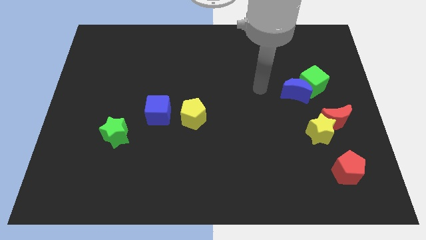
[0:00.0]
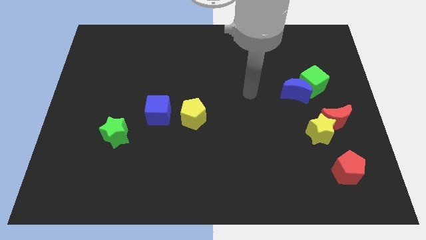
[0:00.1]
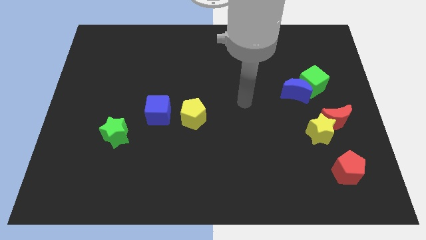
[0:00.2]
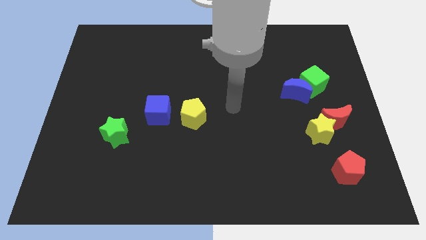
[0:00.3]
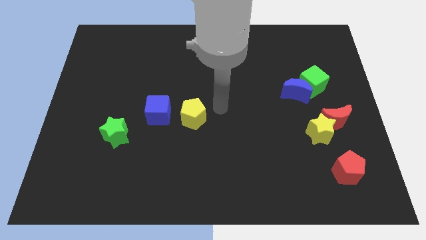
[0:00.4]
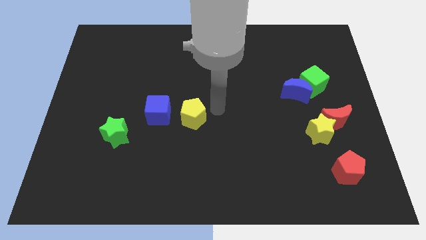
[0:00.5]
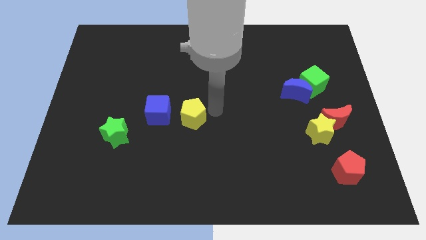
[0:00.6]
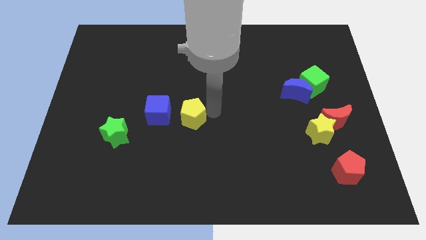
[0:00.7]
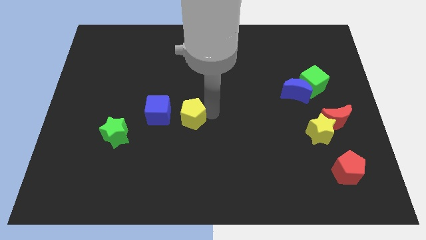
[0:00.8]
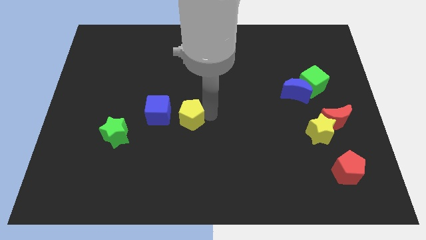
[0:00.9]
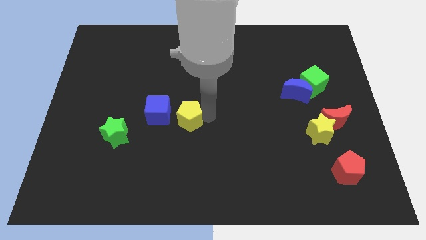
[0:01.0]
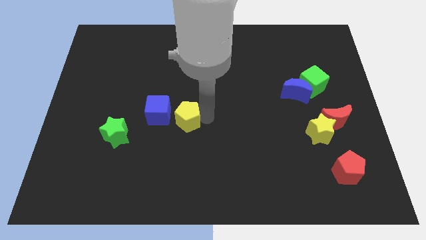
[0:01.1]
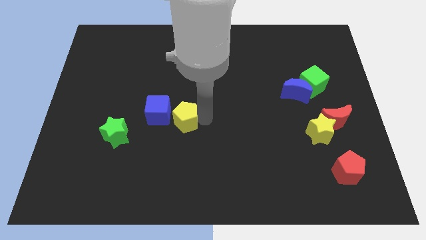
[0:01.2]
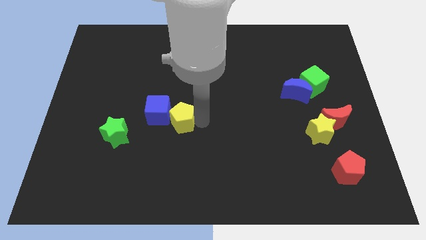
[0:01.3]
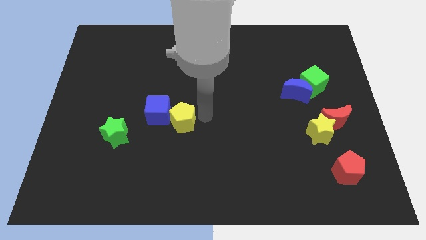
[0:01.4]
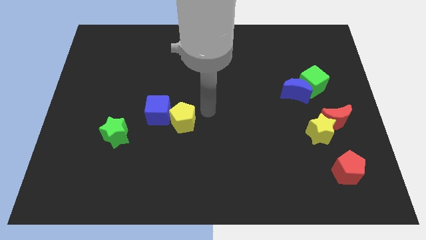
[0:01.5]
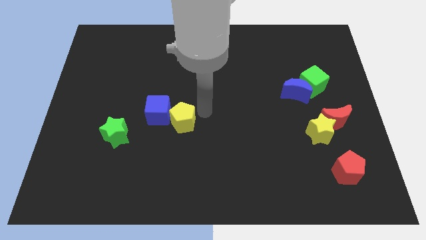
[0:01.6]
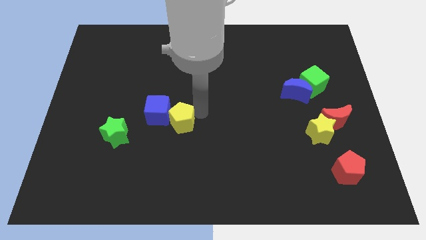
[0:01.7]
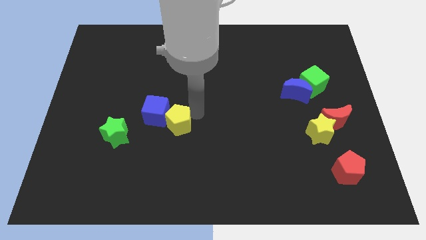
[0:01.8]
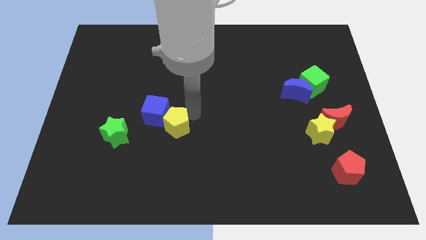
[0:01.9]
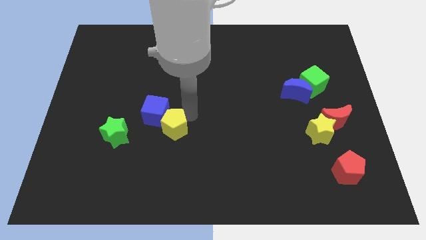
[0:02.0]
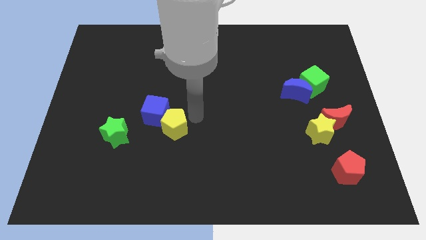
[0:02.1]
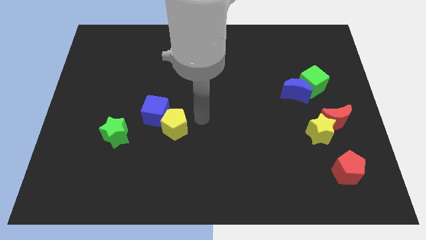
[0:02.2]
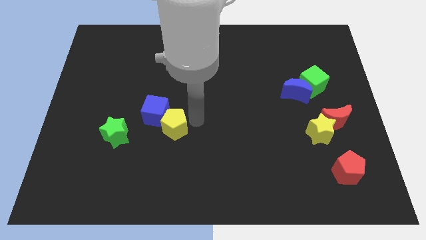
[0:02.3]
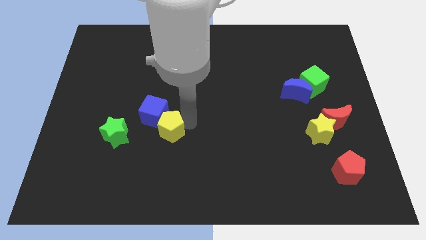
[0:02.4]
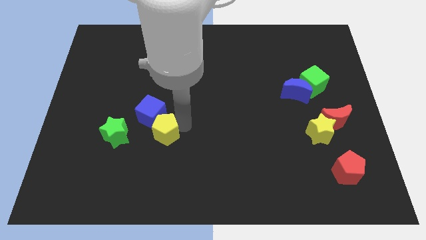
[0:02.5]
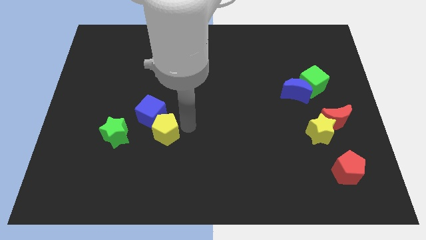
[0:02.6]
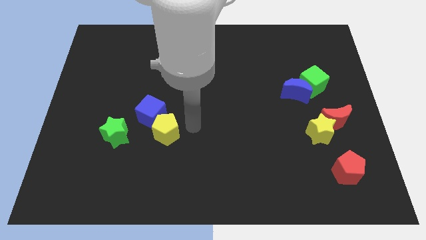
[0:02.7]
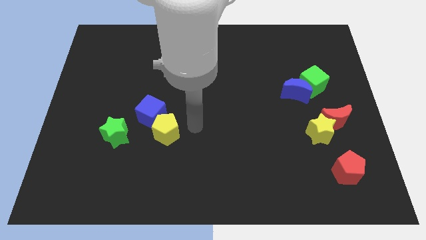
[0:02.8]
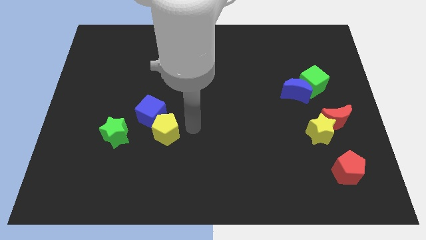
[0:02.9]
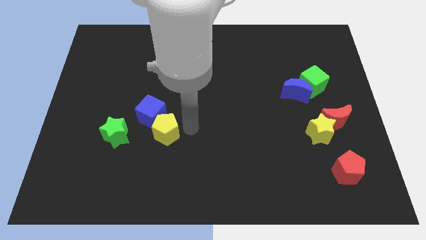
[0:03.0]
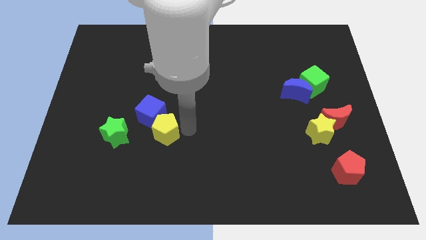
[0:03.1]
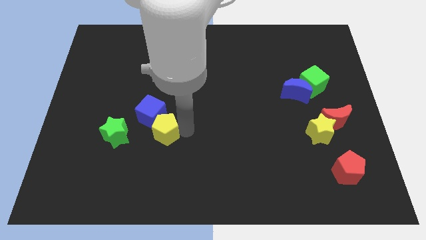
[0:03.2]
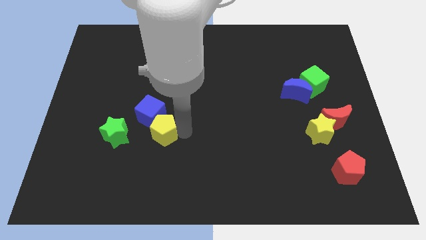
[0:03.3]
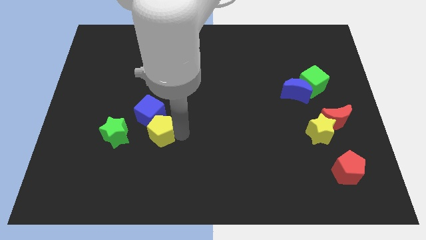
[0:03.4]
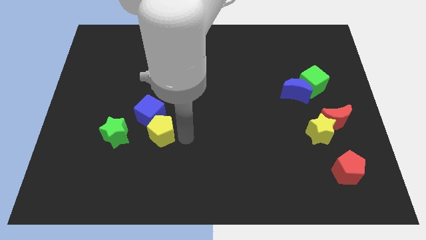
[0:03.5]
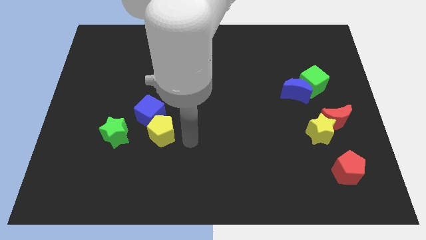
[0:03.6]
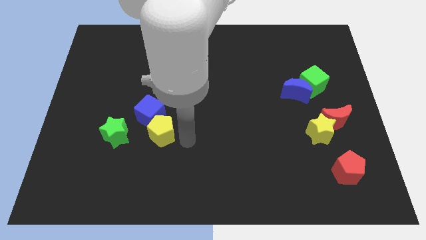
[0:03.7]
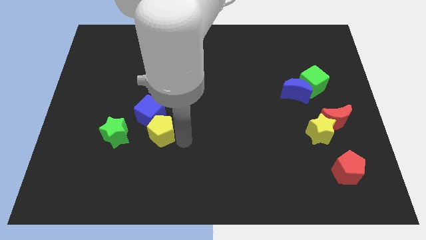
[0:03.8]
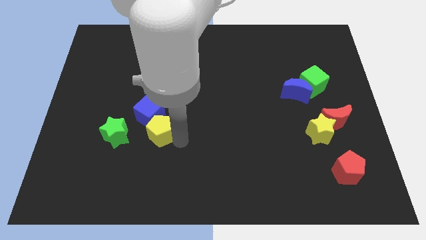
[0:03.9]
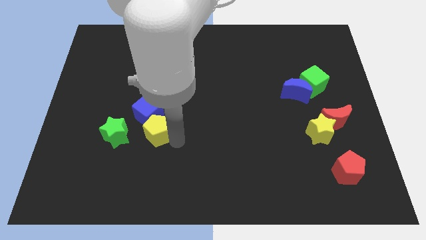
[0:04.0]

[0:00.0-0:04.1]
push the yellow pentagon somewhat to the left

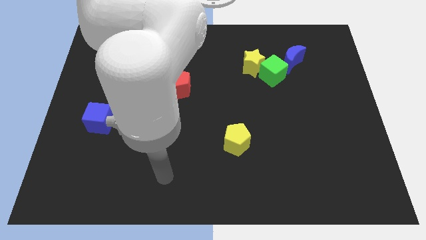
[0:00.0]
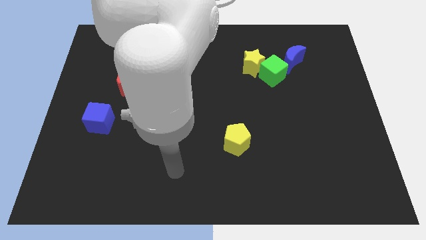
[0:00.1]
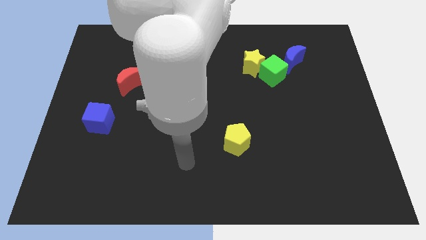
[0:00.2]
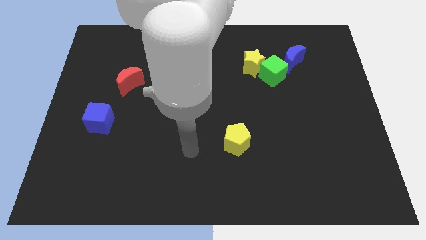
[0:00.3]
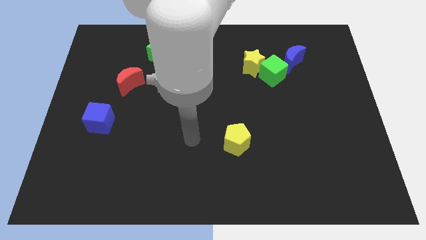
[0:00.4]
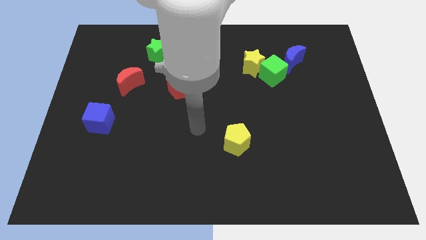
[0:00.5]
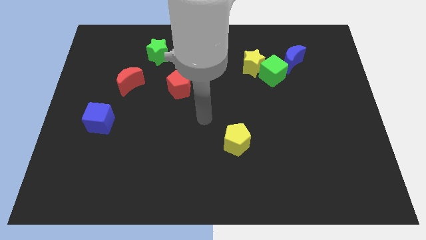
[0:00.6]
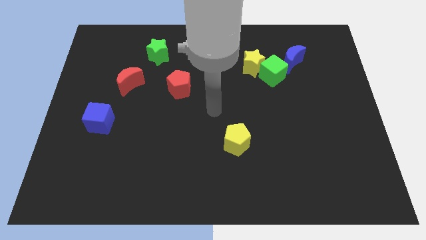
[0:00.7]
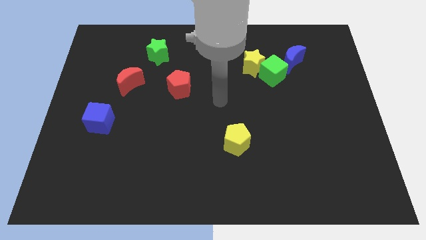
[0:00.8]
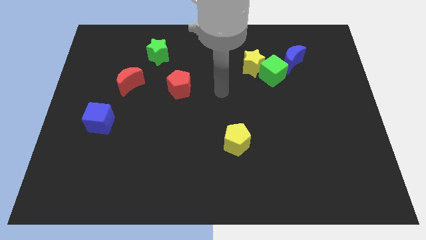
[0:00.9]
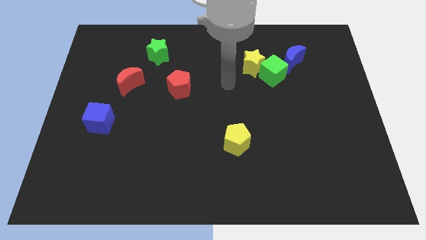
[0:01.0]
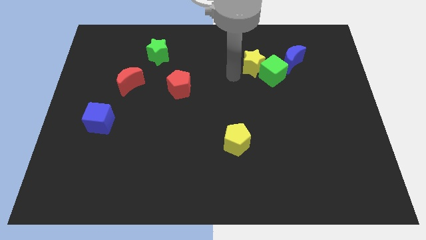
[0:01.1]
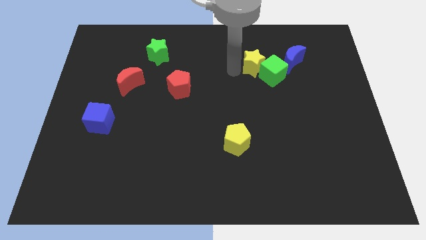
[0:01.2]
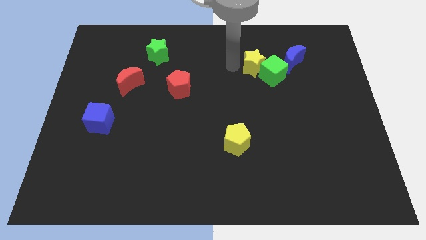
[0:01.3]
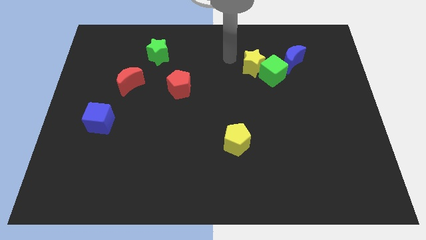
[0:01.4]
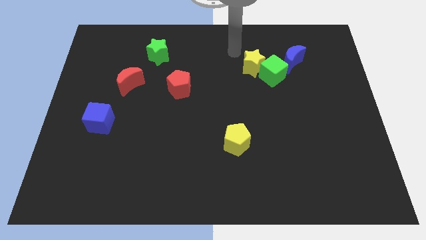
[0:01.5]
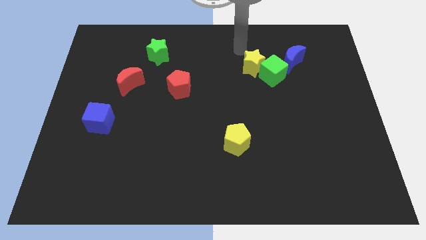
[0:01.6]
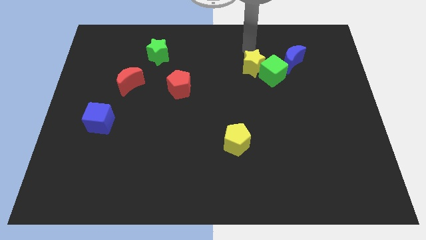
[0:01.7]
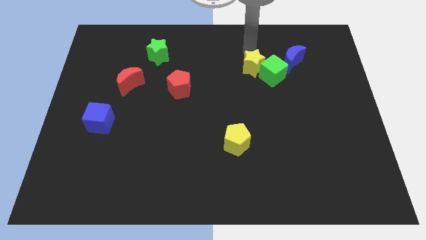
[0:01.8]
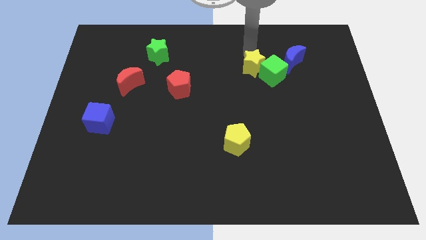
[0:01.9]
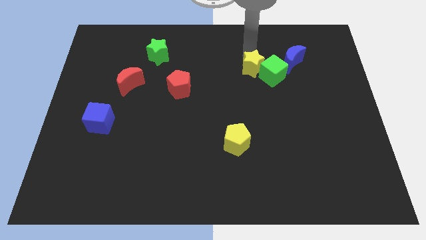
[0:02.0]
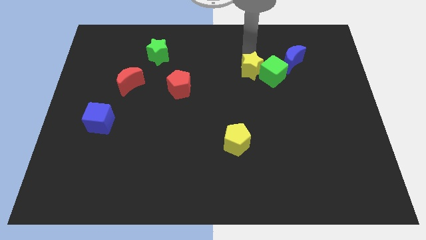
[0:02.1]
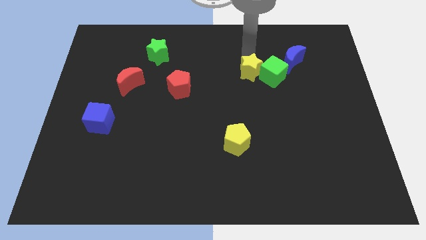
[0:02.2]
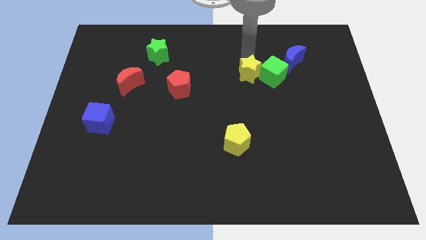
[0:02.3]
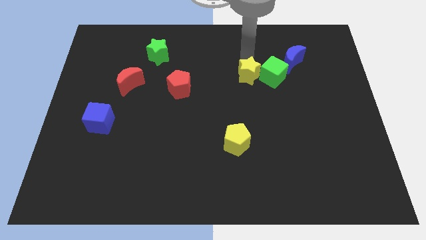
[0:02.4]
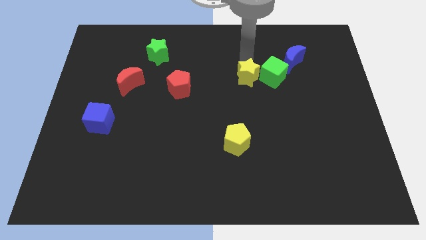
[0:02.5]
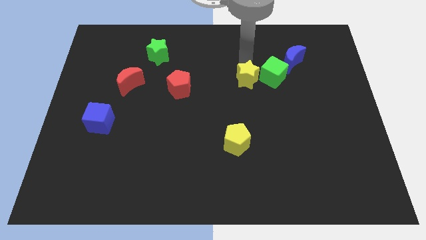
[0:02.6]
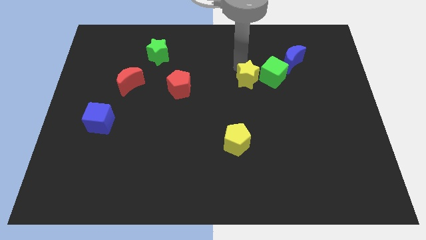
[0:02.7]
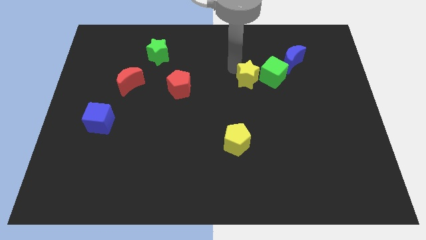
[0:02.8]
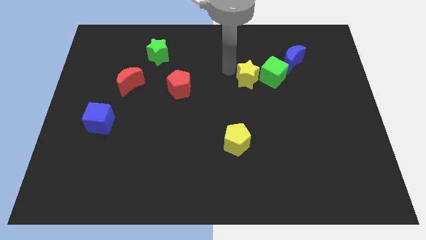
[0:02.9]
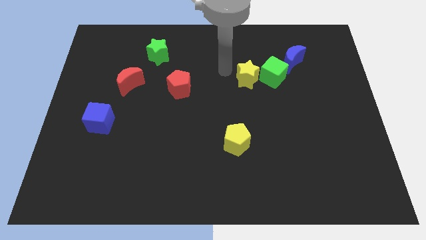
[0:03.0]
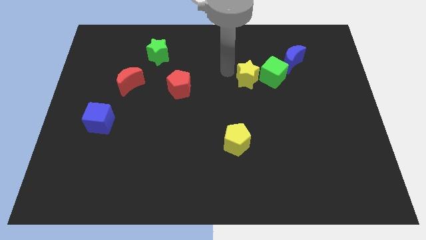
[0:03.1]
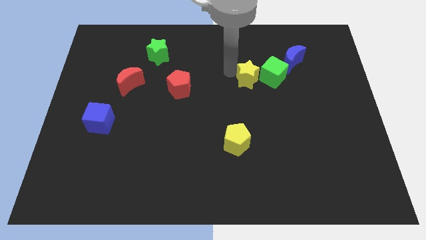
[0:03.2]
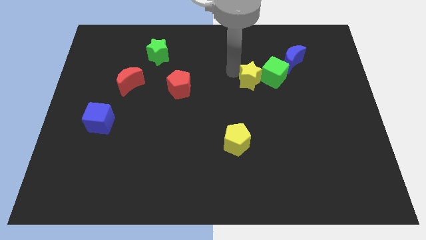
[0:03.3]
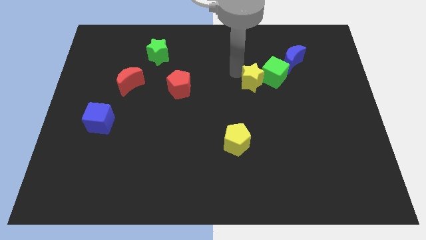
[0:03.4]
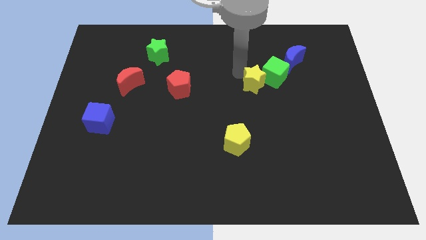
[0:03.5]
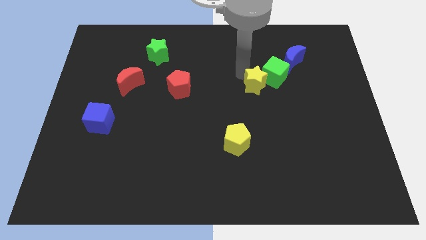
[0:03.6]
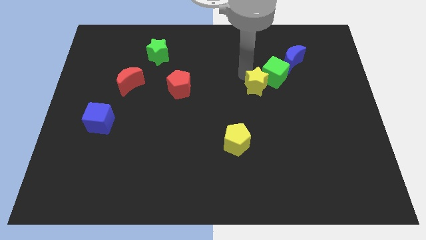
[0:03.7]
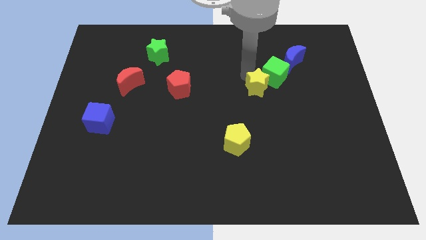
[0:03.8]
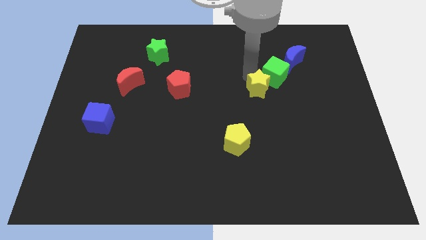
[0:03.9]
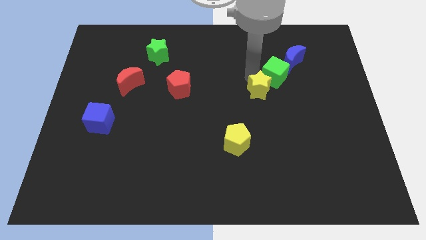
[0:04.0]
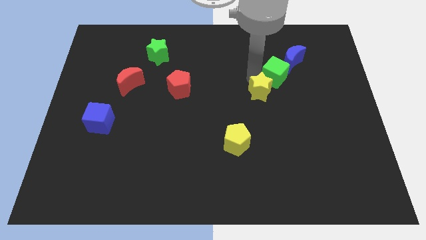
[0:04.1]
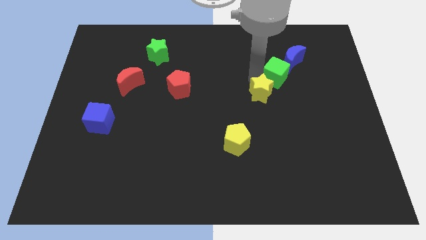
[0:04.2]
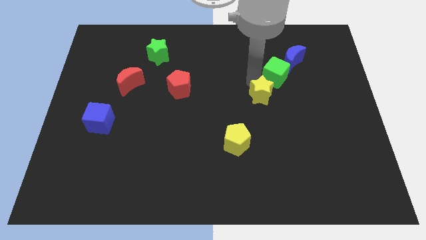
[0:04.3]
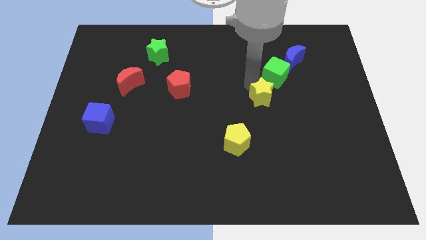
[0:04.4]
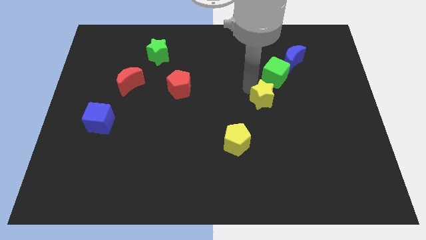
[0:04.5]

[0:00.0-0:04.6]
slide the yellow star down and to the right a bit
